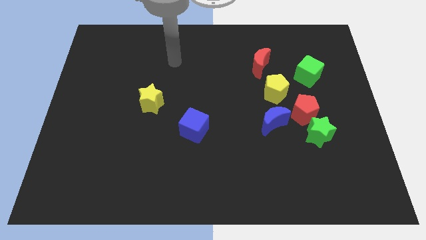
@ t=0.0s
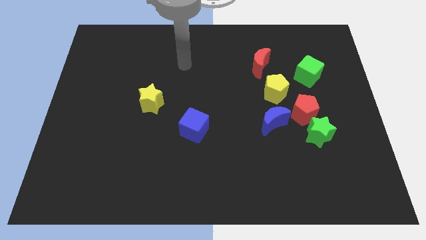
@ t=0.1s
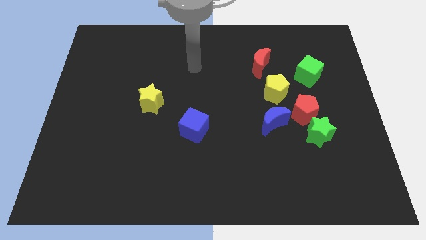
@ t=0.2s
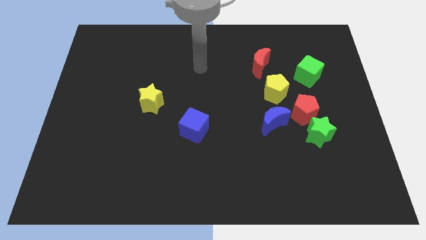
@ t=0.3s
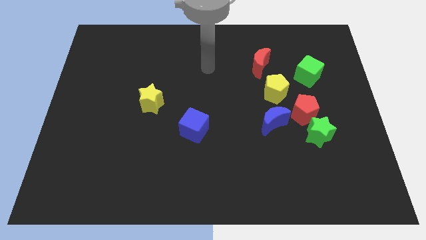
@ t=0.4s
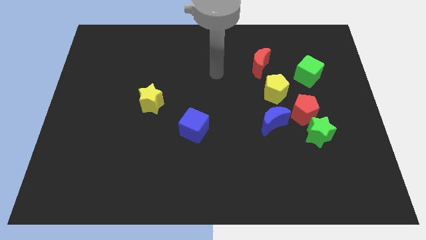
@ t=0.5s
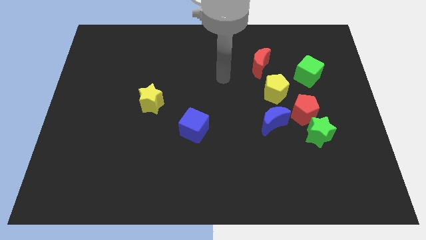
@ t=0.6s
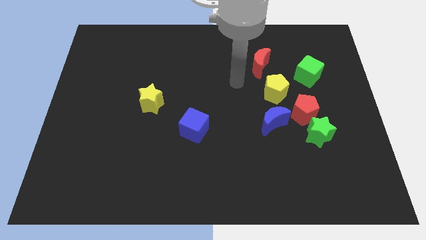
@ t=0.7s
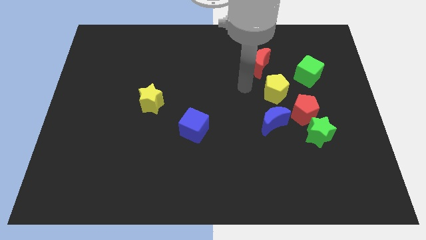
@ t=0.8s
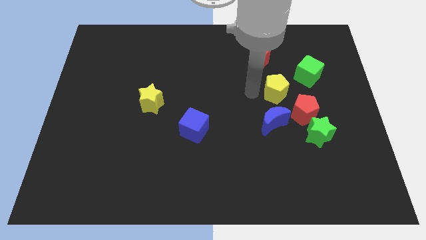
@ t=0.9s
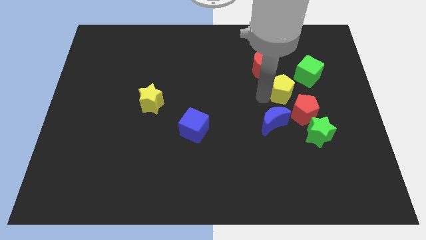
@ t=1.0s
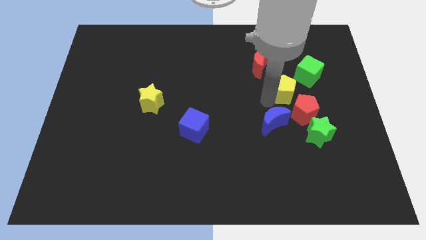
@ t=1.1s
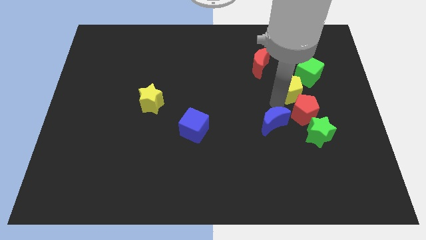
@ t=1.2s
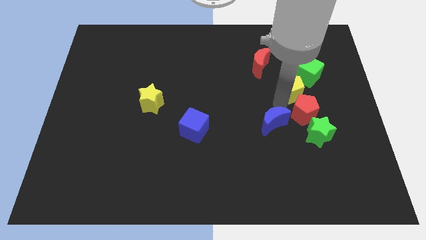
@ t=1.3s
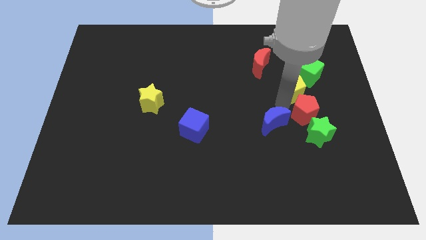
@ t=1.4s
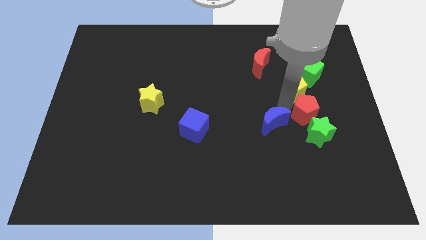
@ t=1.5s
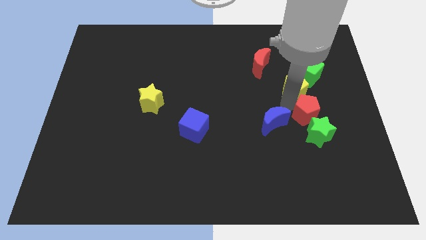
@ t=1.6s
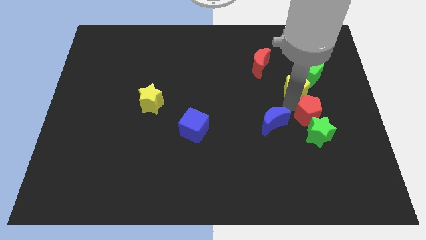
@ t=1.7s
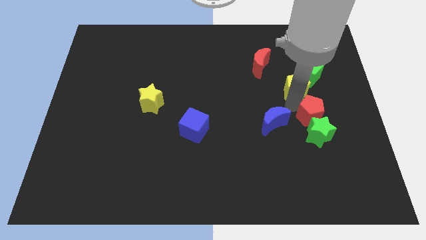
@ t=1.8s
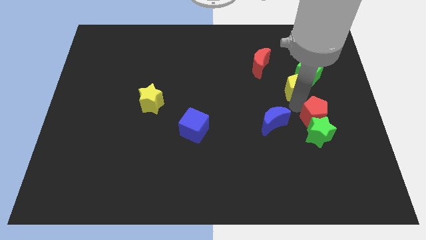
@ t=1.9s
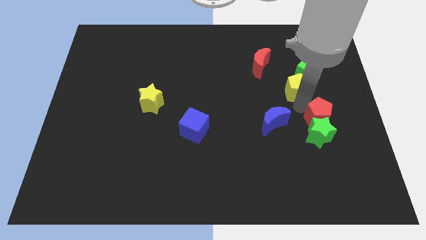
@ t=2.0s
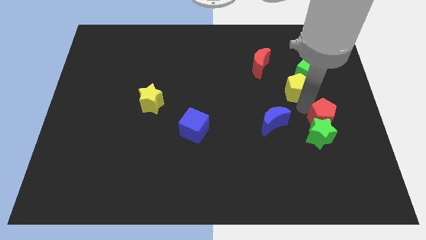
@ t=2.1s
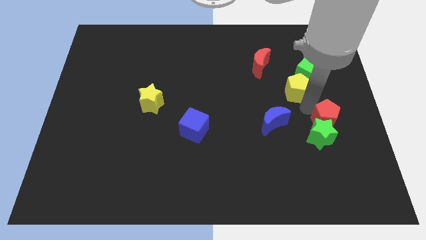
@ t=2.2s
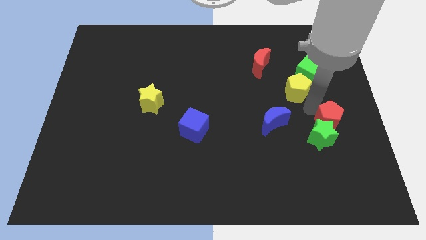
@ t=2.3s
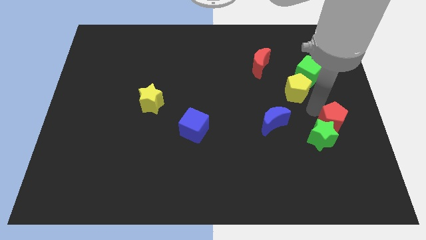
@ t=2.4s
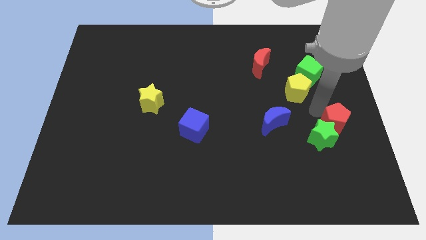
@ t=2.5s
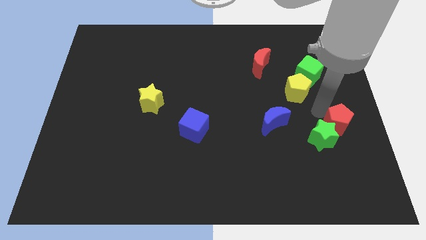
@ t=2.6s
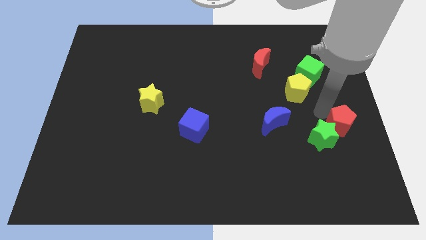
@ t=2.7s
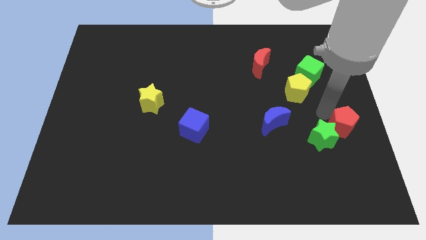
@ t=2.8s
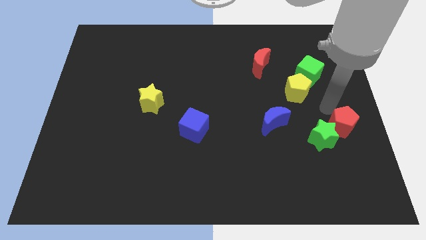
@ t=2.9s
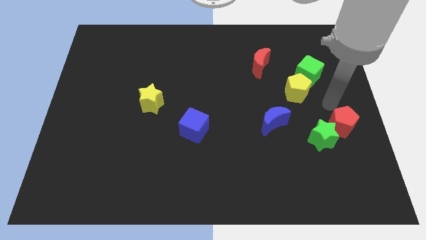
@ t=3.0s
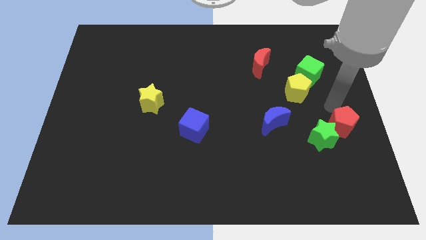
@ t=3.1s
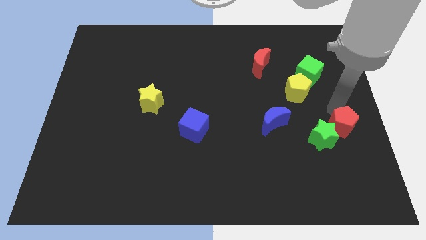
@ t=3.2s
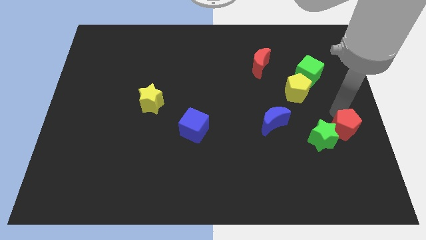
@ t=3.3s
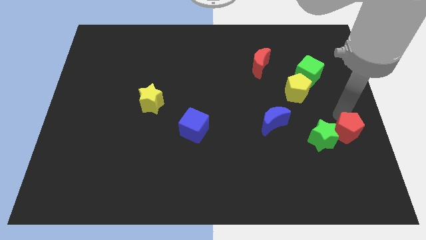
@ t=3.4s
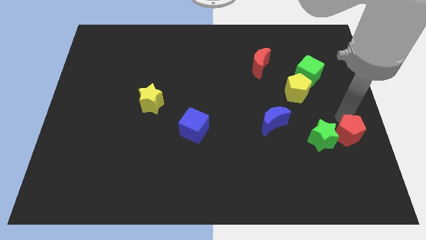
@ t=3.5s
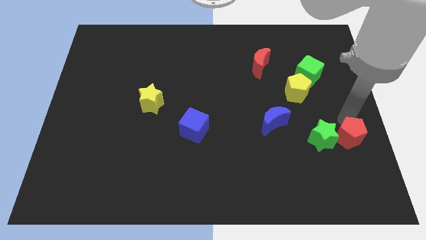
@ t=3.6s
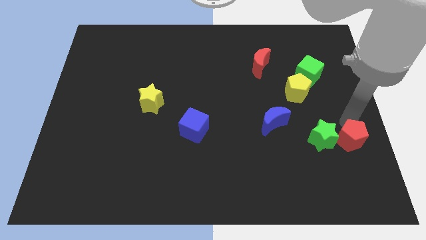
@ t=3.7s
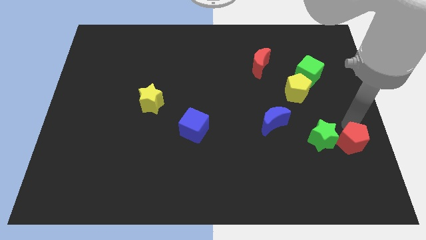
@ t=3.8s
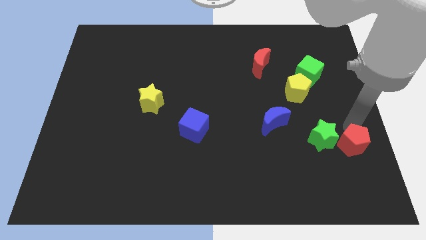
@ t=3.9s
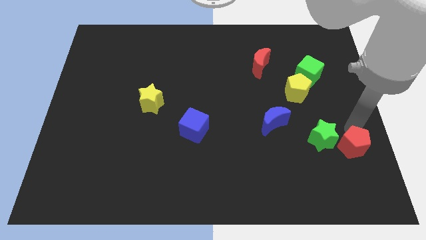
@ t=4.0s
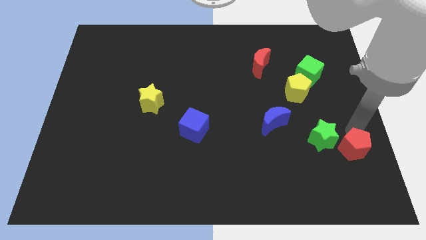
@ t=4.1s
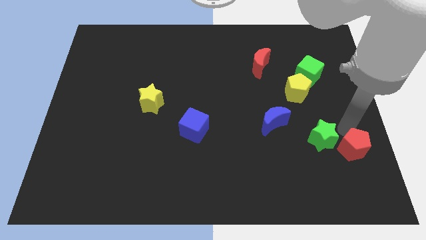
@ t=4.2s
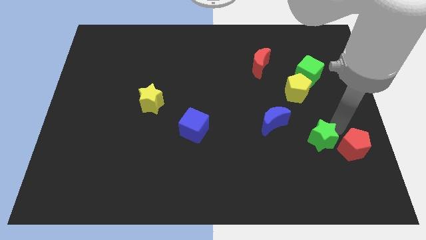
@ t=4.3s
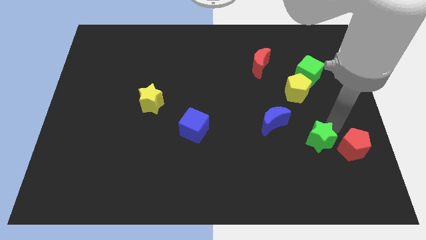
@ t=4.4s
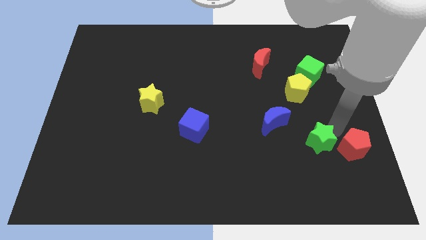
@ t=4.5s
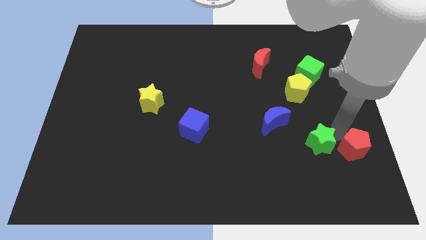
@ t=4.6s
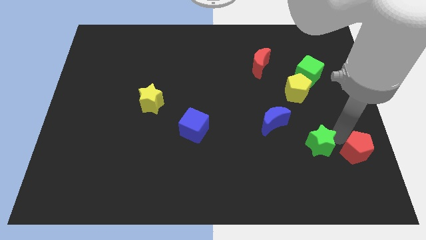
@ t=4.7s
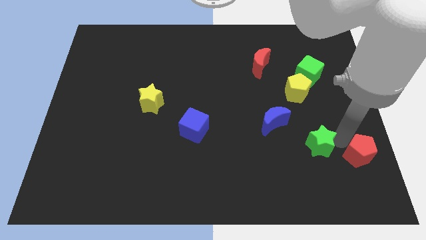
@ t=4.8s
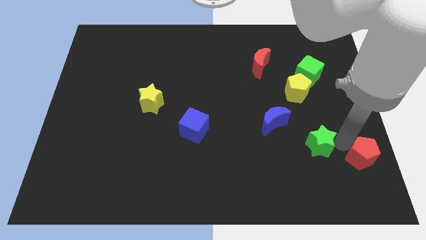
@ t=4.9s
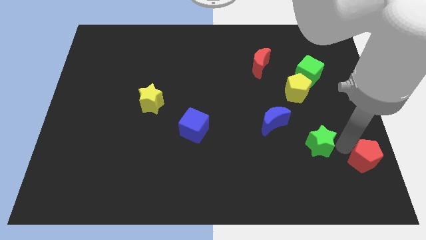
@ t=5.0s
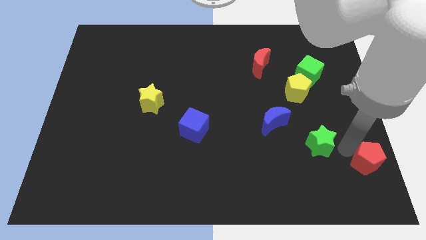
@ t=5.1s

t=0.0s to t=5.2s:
move the red pentagon to the bottom right corner

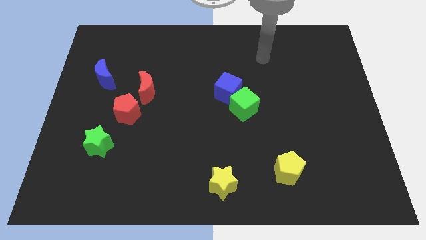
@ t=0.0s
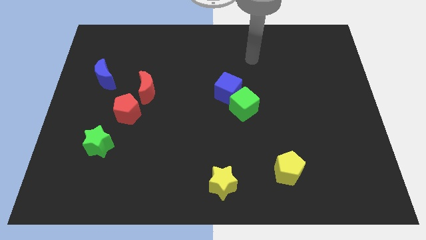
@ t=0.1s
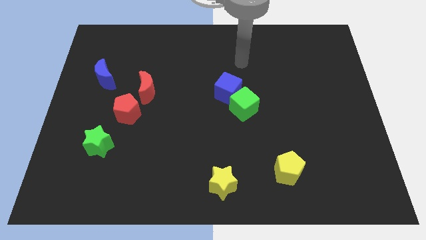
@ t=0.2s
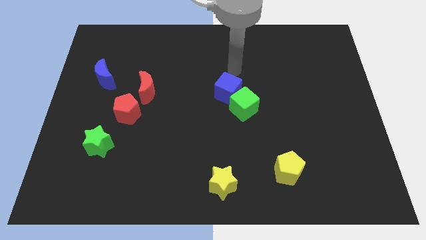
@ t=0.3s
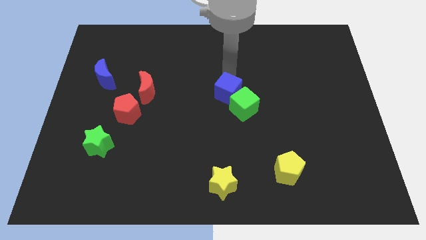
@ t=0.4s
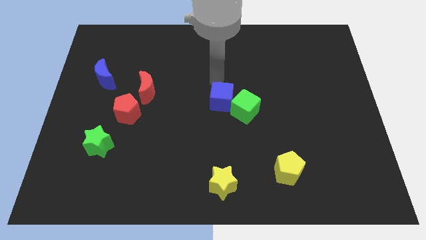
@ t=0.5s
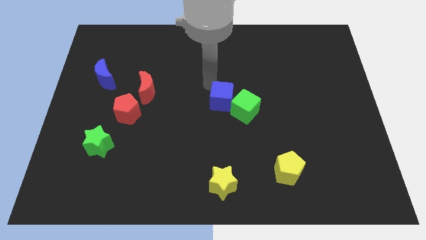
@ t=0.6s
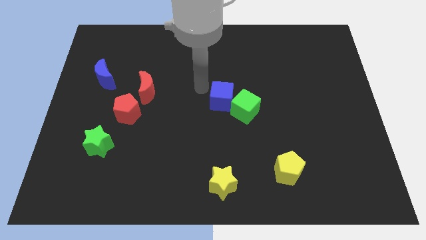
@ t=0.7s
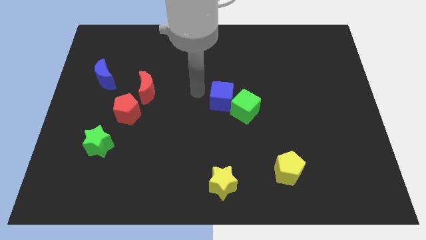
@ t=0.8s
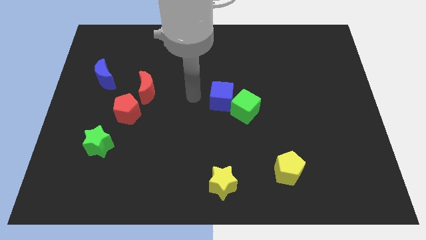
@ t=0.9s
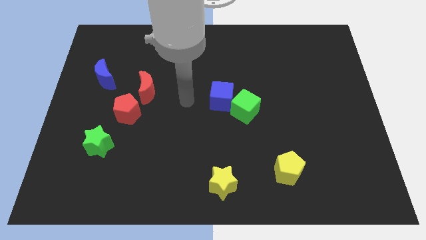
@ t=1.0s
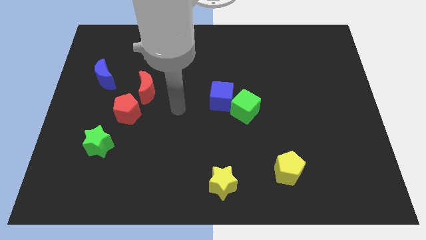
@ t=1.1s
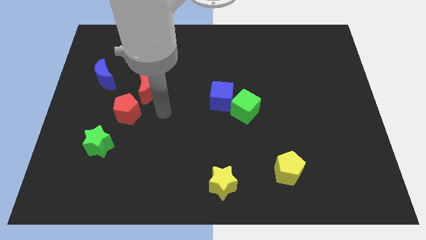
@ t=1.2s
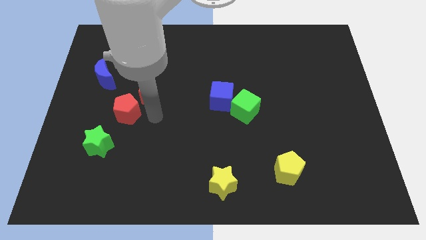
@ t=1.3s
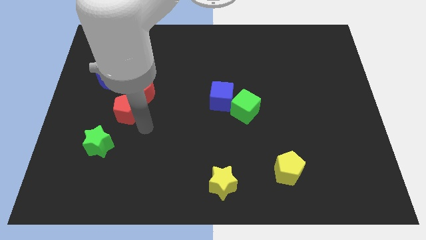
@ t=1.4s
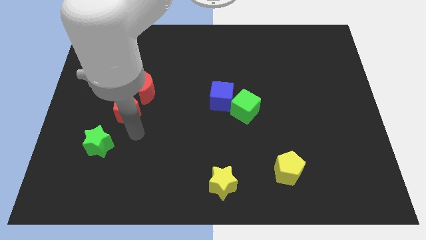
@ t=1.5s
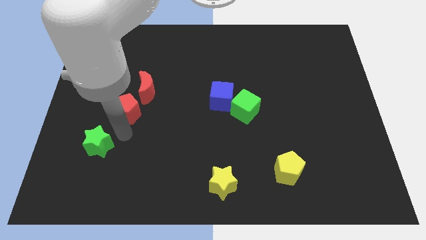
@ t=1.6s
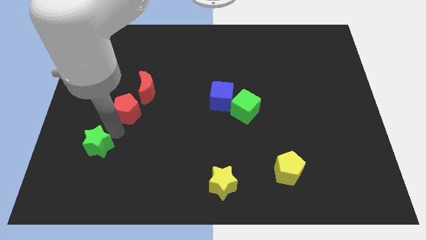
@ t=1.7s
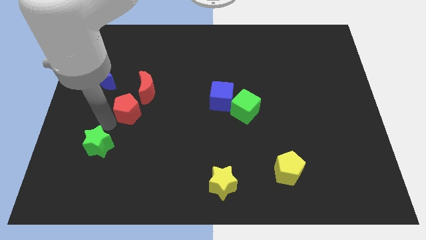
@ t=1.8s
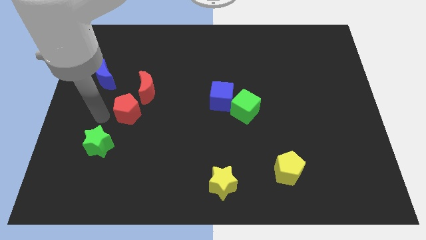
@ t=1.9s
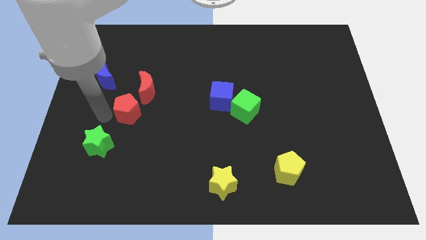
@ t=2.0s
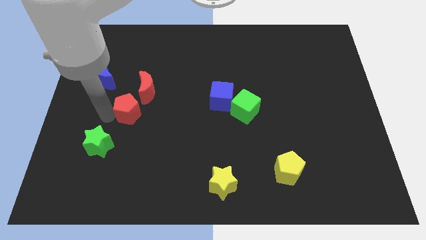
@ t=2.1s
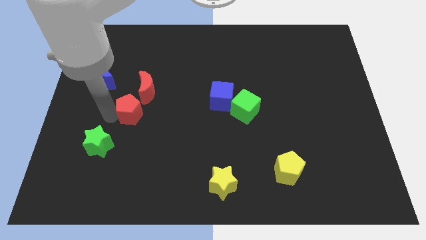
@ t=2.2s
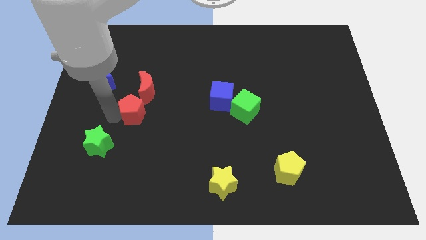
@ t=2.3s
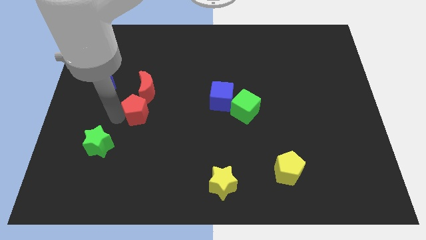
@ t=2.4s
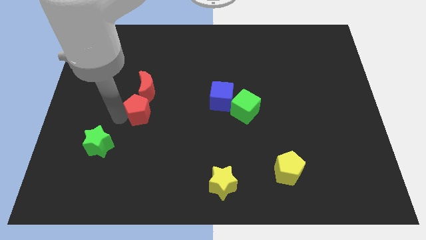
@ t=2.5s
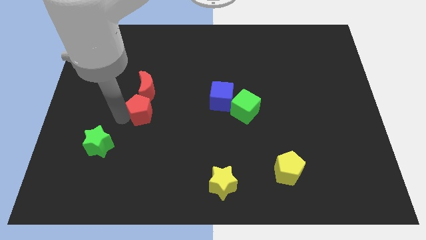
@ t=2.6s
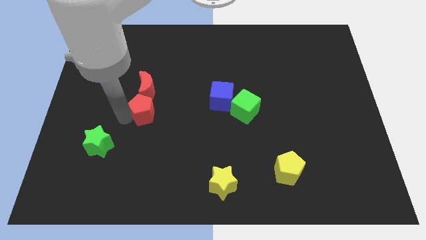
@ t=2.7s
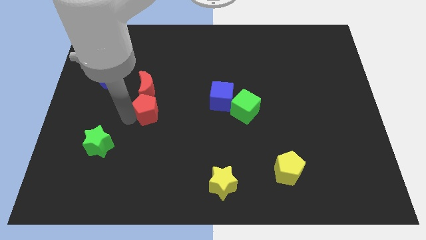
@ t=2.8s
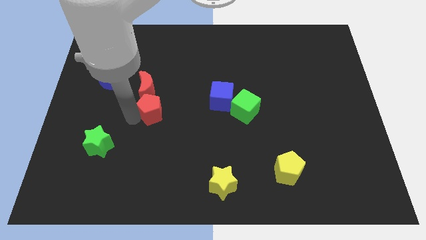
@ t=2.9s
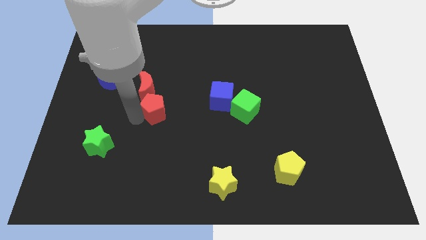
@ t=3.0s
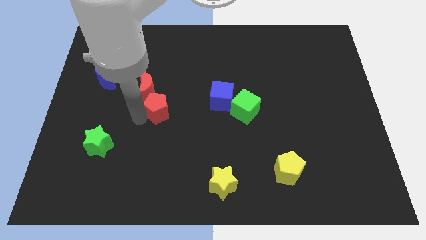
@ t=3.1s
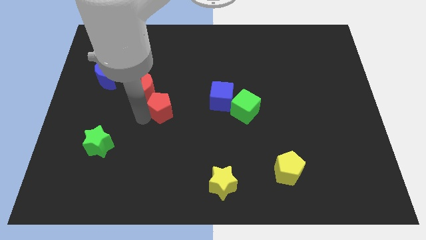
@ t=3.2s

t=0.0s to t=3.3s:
push the red pentagon to the middle
